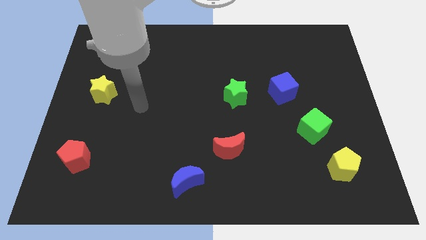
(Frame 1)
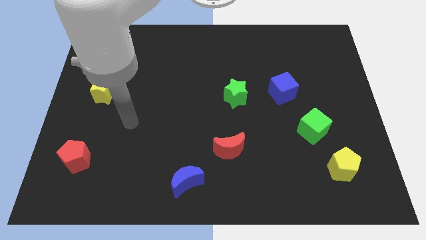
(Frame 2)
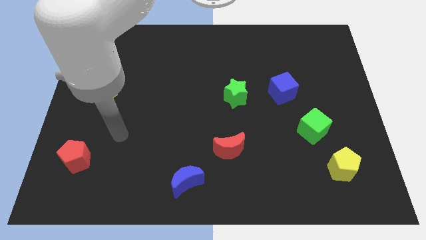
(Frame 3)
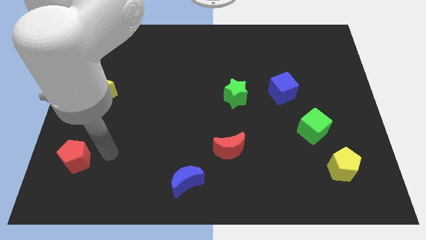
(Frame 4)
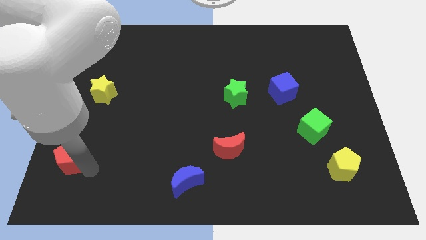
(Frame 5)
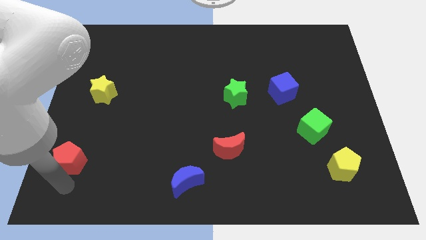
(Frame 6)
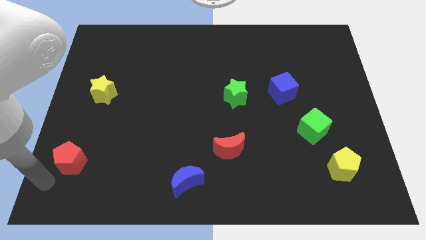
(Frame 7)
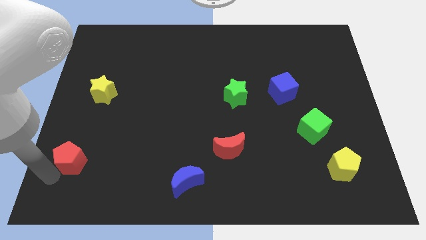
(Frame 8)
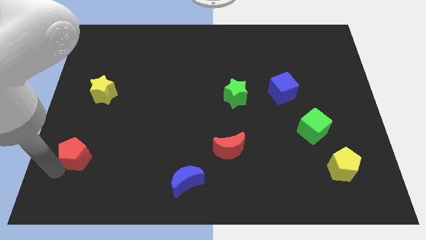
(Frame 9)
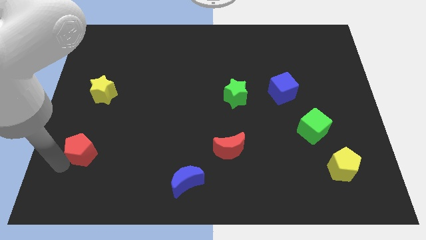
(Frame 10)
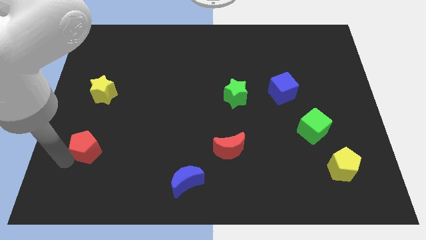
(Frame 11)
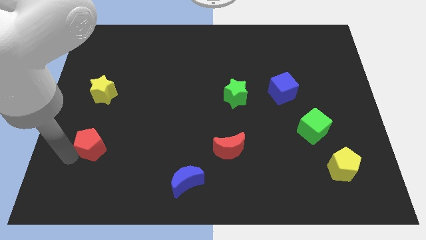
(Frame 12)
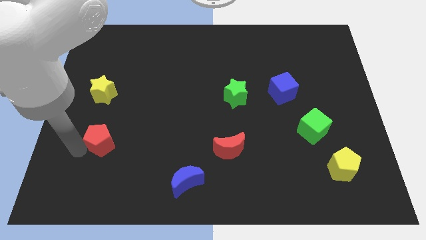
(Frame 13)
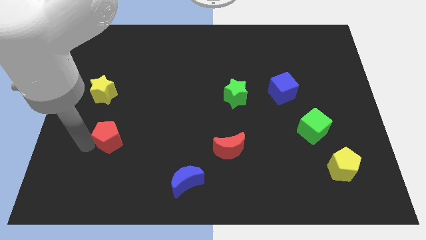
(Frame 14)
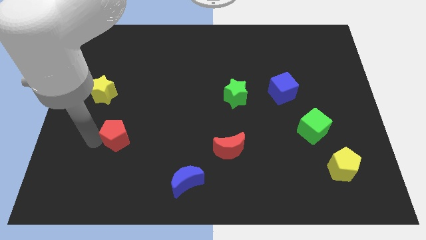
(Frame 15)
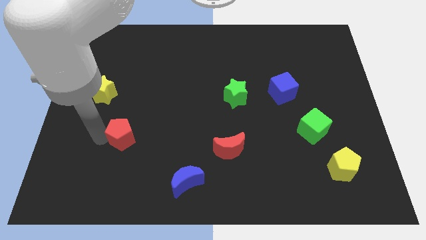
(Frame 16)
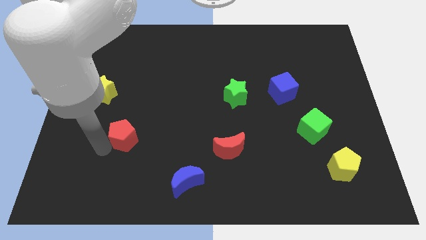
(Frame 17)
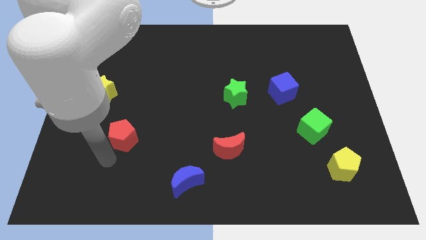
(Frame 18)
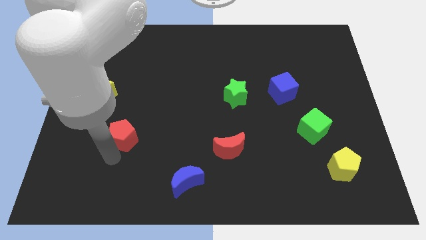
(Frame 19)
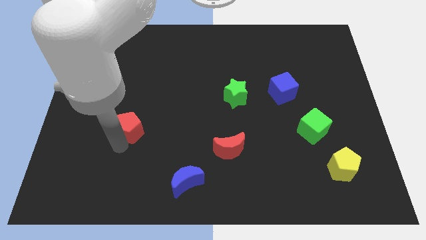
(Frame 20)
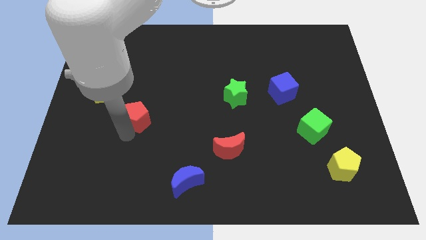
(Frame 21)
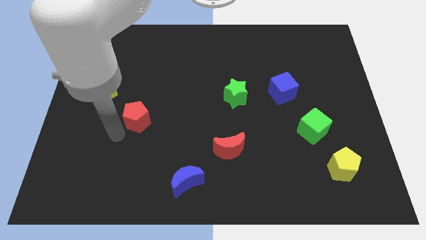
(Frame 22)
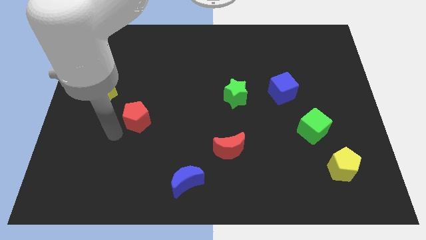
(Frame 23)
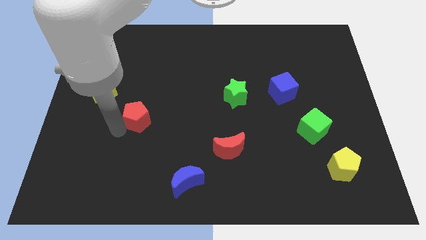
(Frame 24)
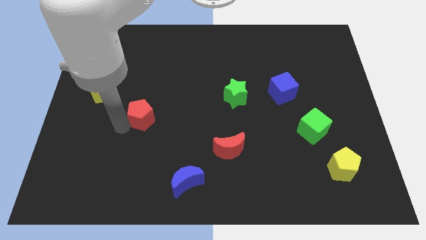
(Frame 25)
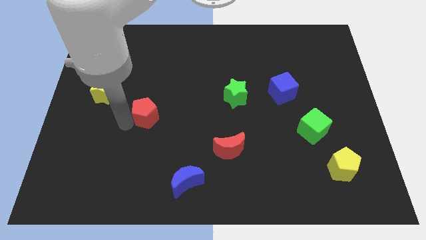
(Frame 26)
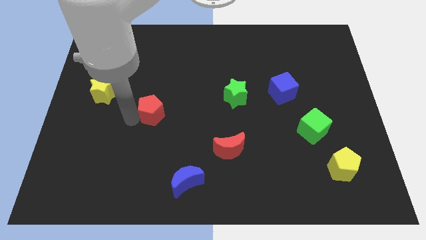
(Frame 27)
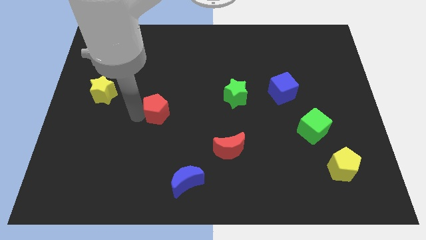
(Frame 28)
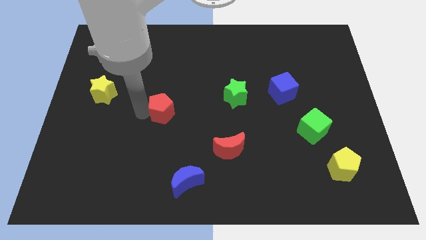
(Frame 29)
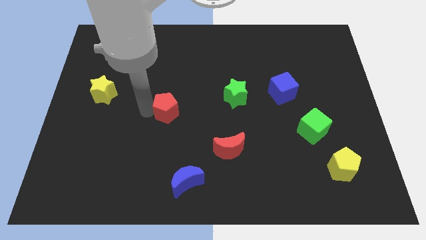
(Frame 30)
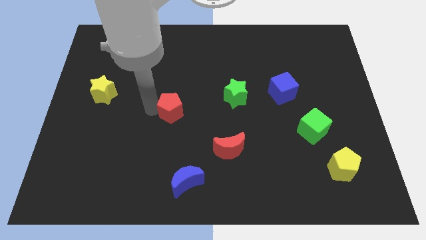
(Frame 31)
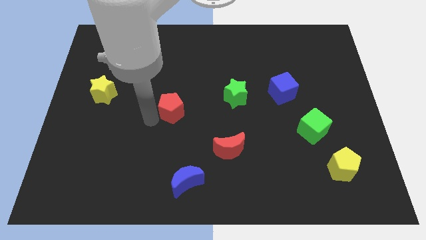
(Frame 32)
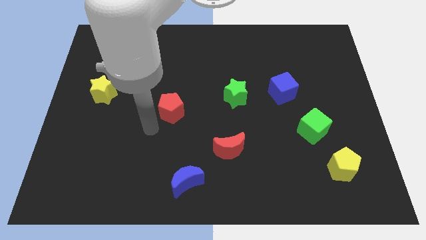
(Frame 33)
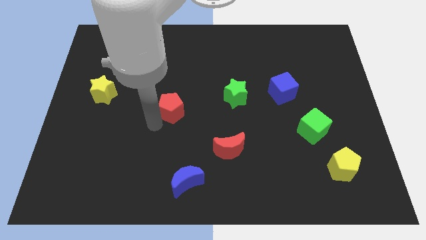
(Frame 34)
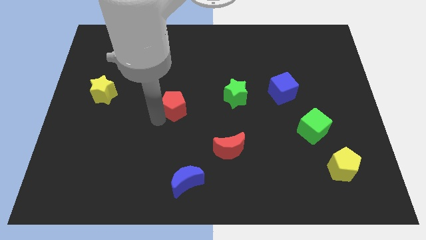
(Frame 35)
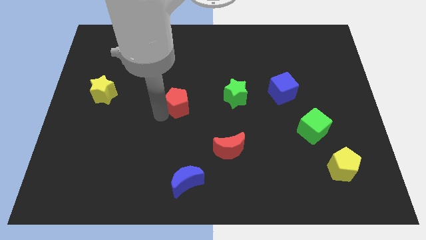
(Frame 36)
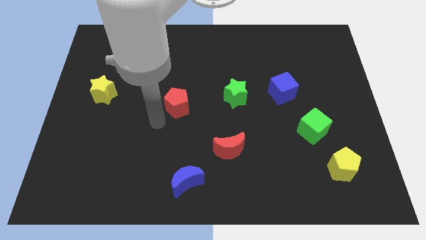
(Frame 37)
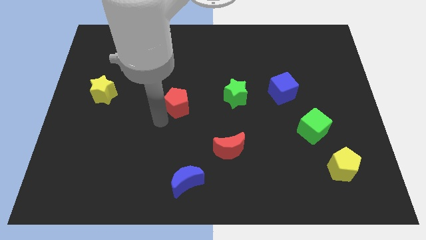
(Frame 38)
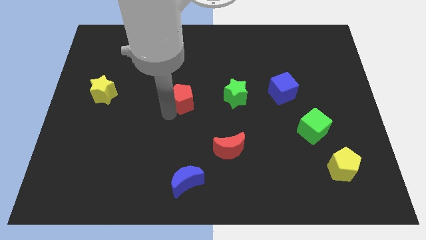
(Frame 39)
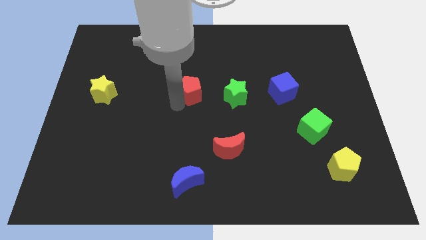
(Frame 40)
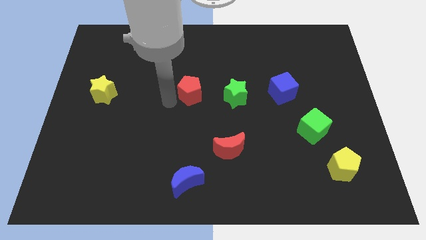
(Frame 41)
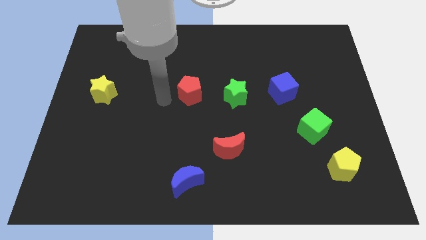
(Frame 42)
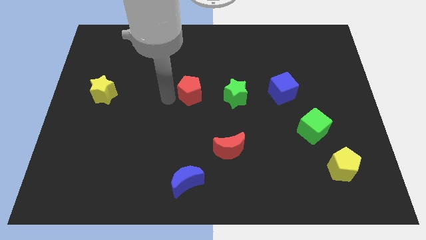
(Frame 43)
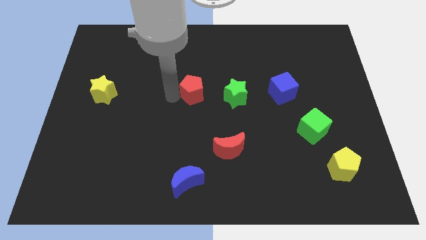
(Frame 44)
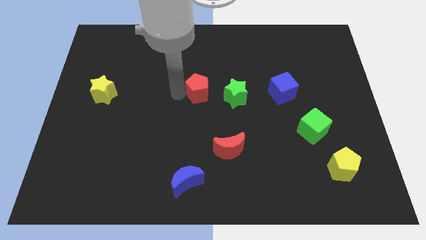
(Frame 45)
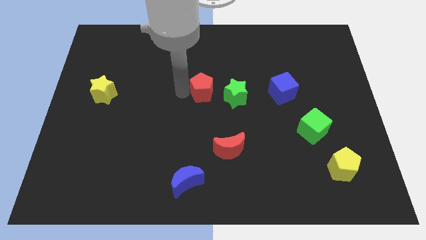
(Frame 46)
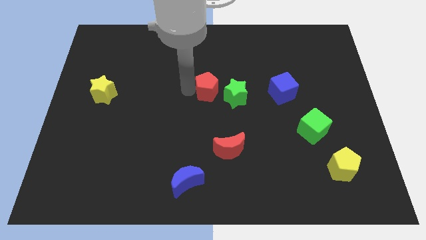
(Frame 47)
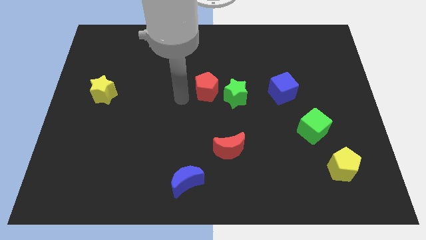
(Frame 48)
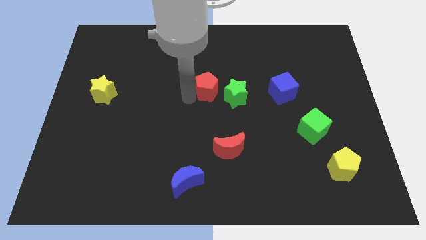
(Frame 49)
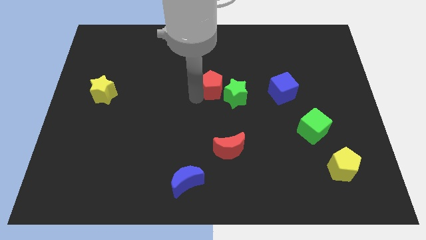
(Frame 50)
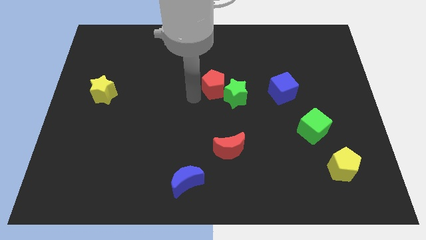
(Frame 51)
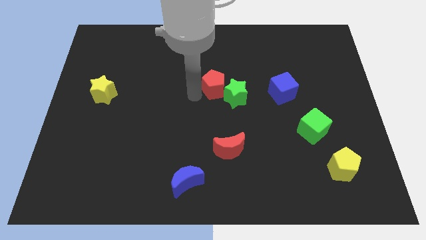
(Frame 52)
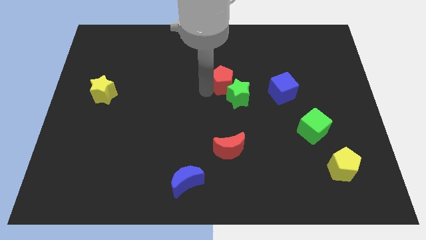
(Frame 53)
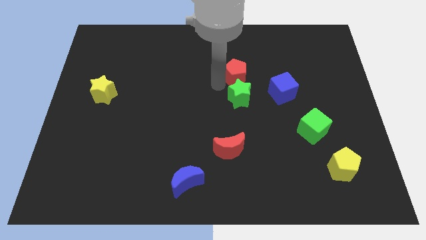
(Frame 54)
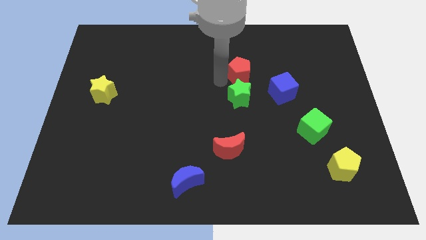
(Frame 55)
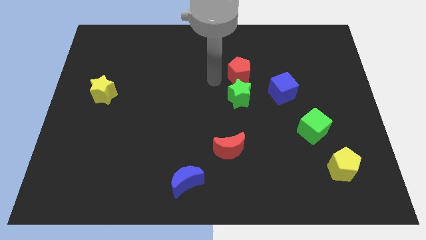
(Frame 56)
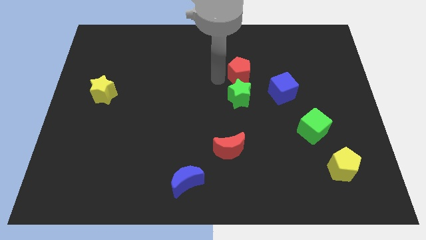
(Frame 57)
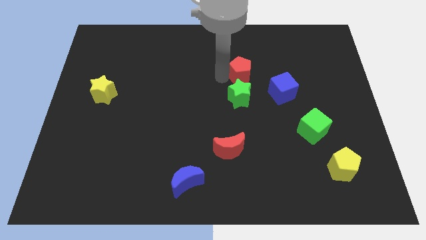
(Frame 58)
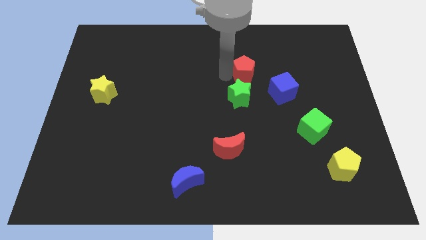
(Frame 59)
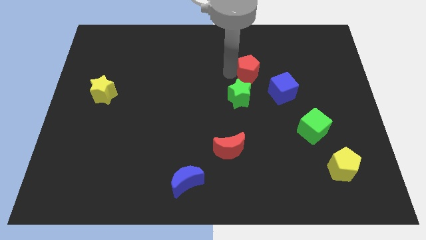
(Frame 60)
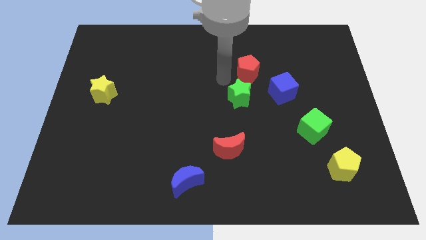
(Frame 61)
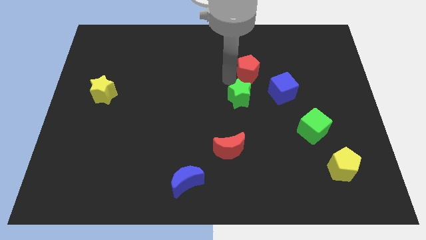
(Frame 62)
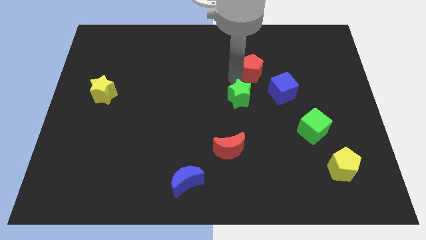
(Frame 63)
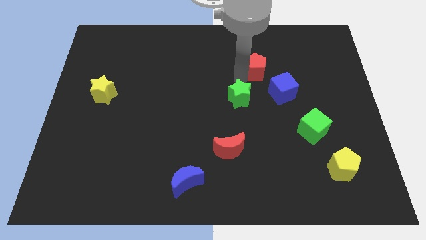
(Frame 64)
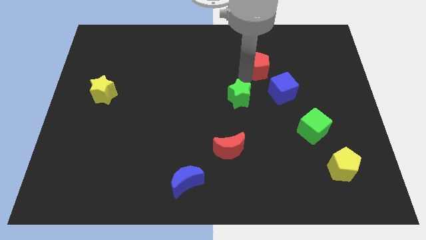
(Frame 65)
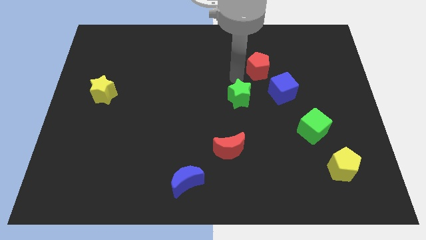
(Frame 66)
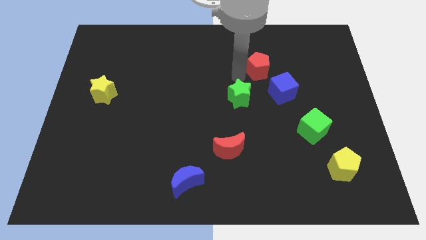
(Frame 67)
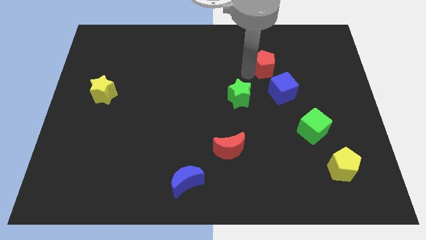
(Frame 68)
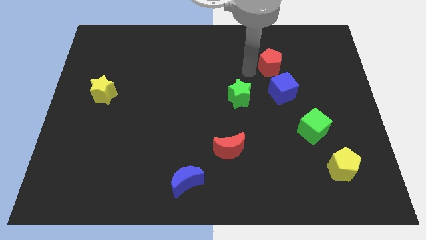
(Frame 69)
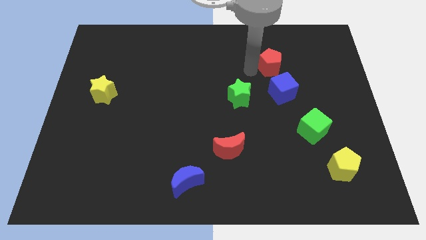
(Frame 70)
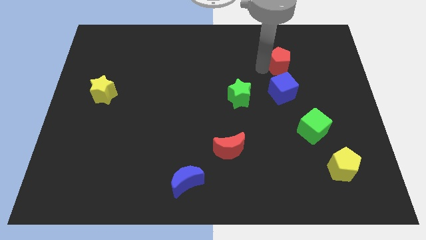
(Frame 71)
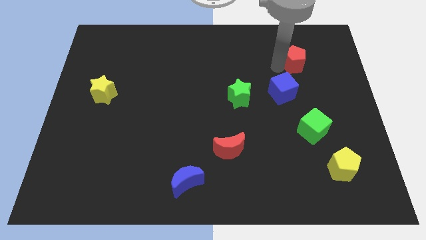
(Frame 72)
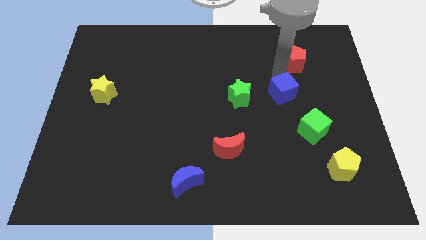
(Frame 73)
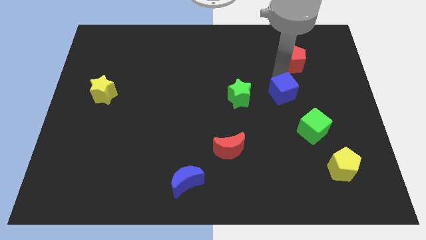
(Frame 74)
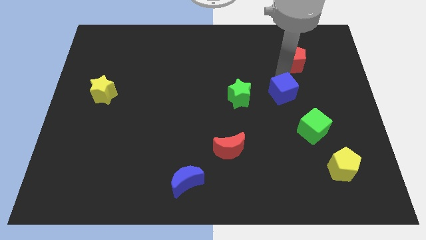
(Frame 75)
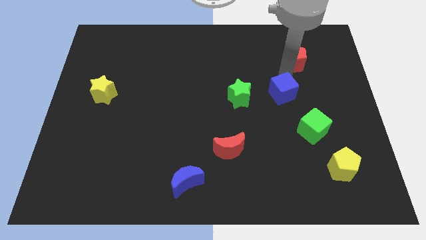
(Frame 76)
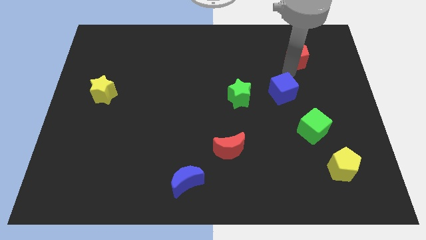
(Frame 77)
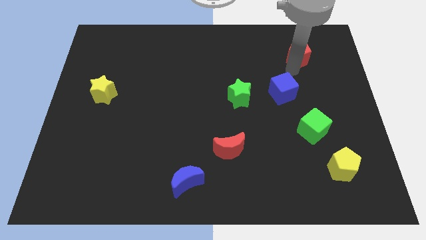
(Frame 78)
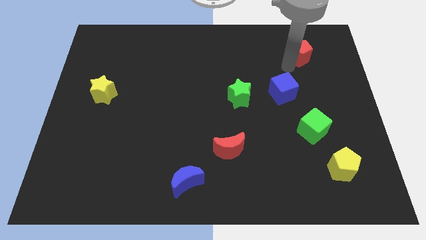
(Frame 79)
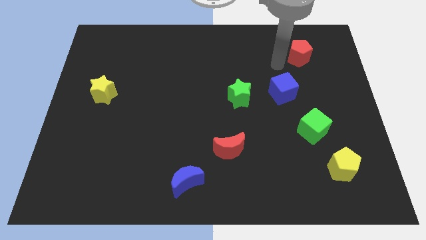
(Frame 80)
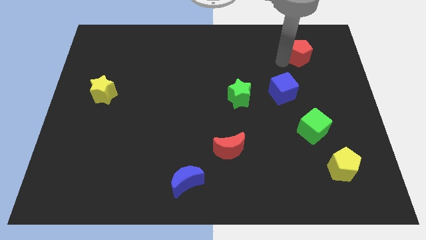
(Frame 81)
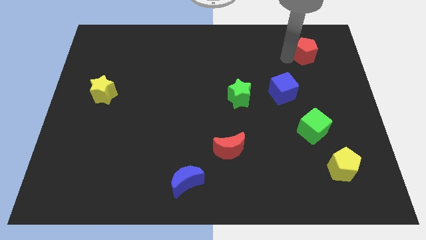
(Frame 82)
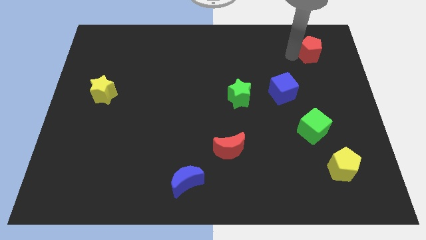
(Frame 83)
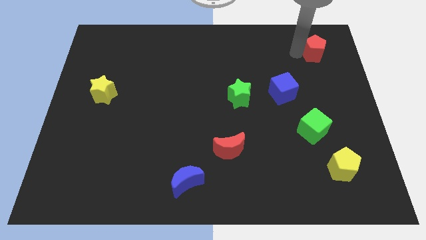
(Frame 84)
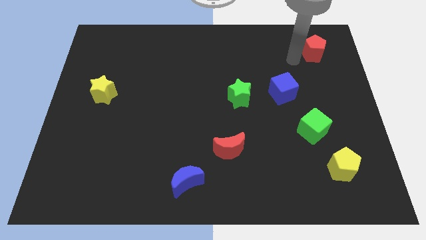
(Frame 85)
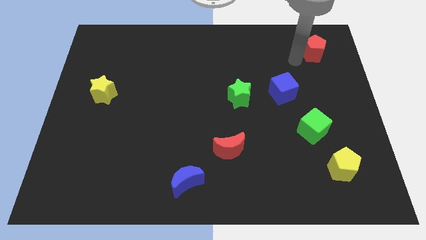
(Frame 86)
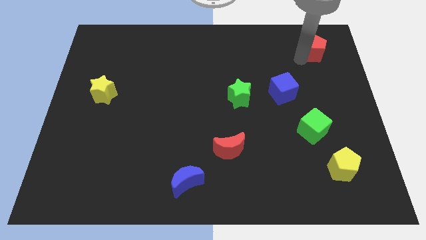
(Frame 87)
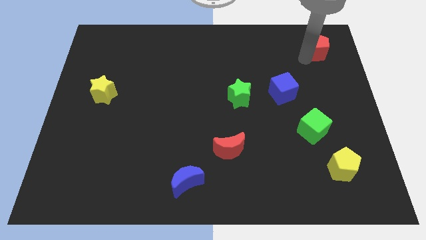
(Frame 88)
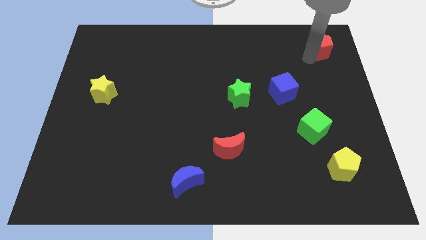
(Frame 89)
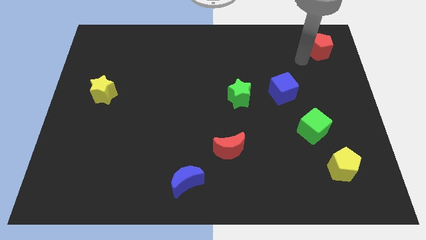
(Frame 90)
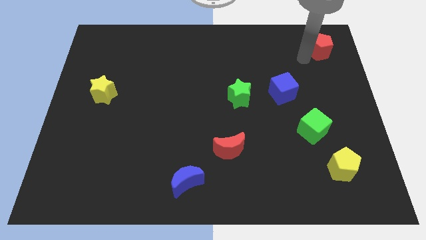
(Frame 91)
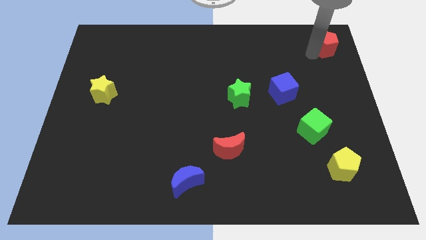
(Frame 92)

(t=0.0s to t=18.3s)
push the red pentagon to the top right
